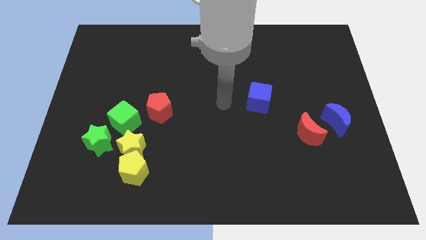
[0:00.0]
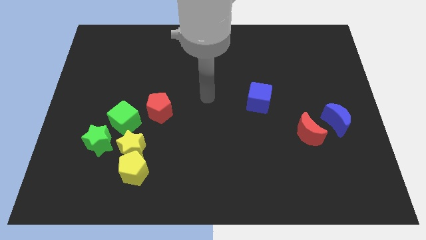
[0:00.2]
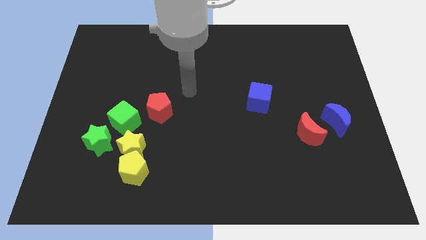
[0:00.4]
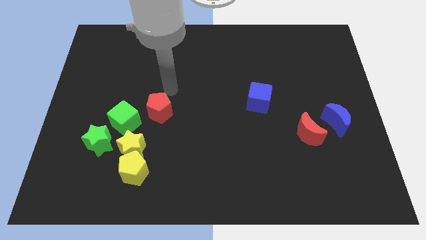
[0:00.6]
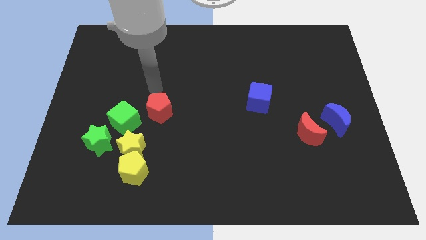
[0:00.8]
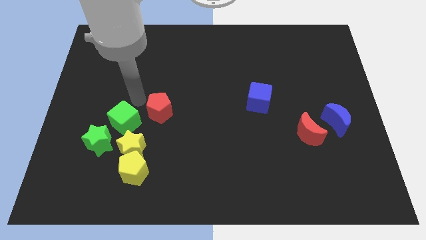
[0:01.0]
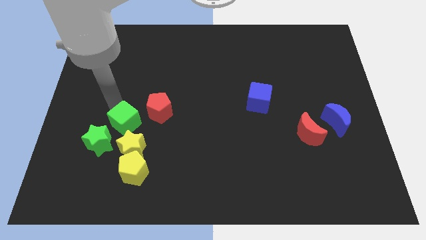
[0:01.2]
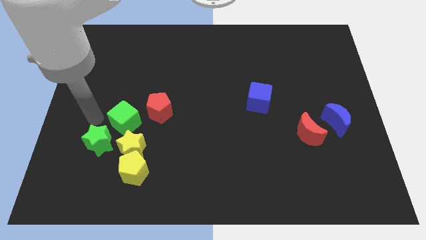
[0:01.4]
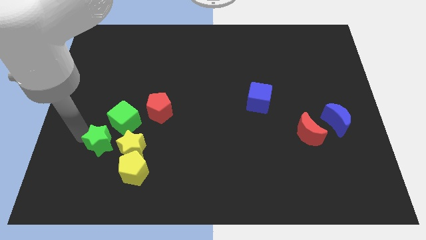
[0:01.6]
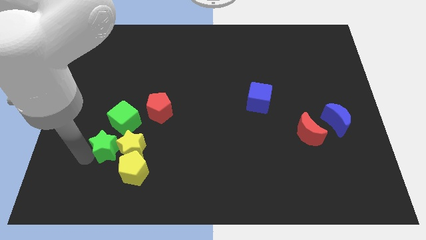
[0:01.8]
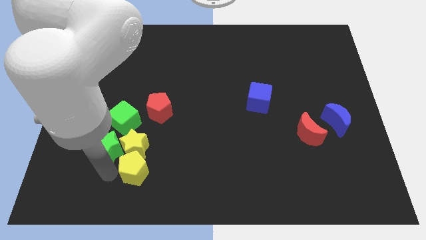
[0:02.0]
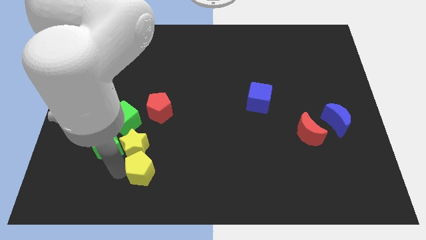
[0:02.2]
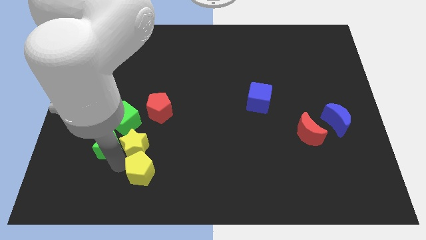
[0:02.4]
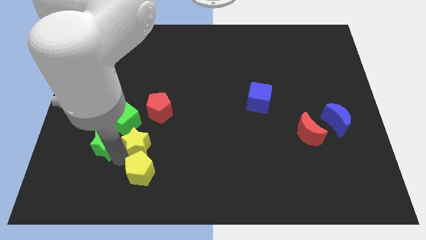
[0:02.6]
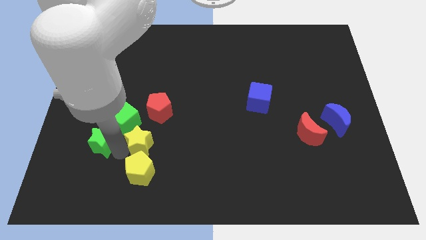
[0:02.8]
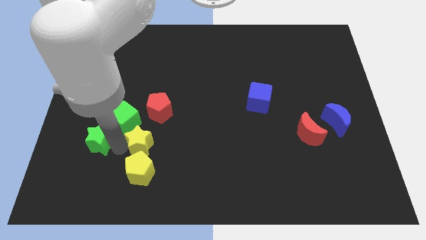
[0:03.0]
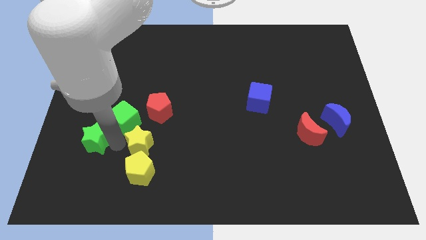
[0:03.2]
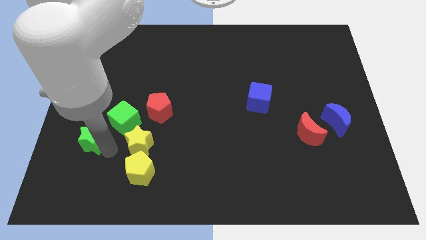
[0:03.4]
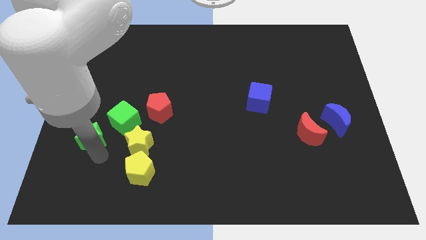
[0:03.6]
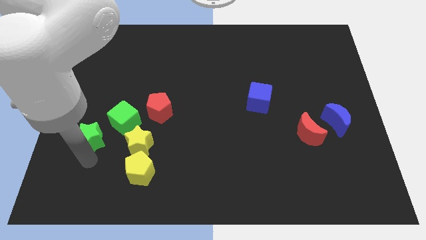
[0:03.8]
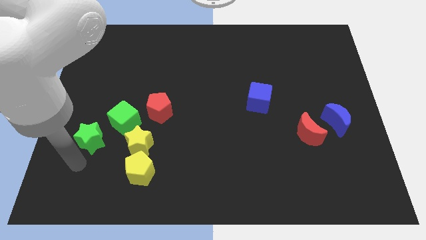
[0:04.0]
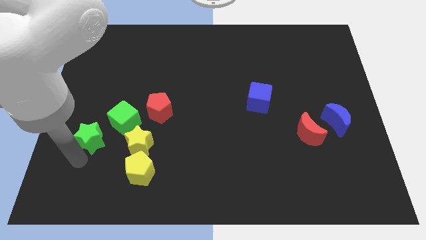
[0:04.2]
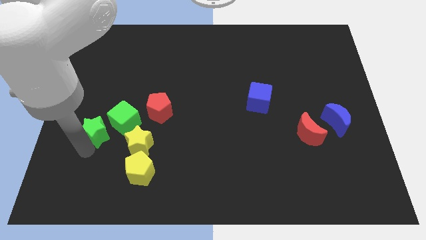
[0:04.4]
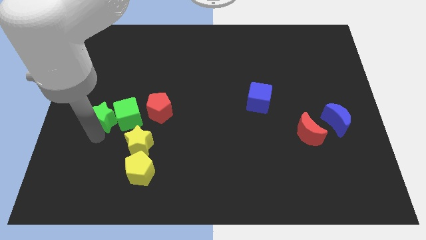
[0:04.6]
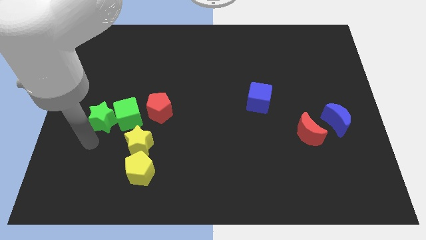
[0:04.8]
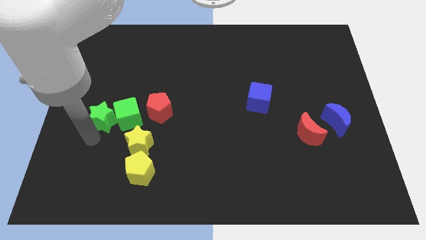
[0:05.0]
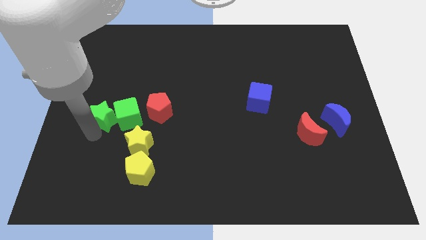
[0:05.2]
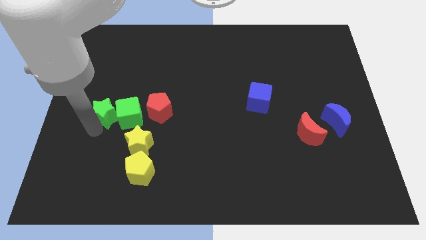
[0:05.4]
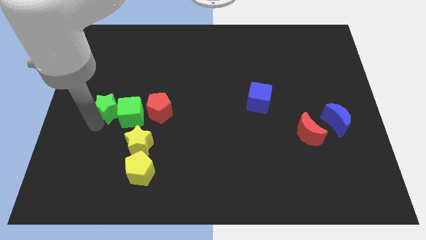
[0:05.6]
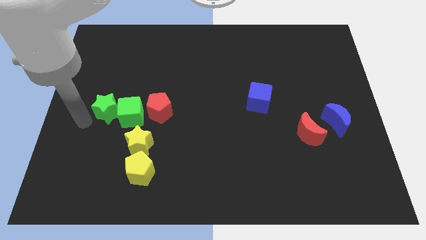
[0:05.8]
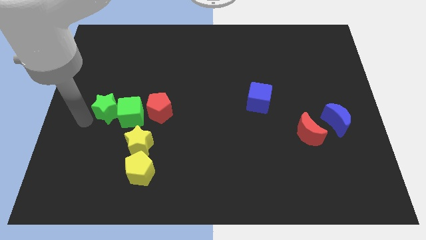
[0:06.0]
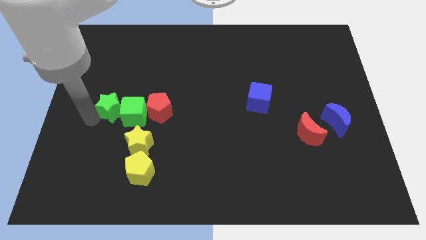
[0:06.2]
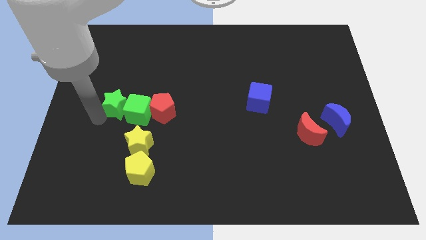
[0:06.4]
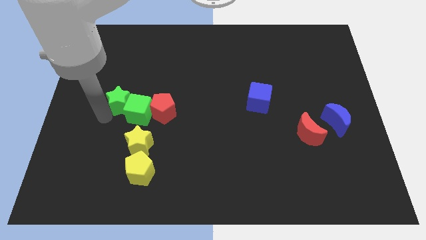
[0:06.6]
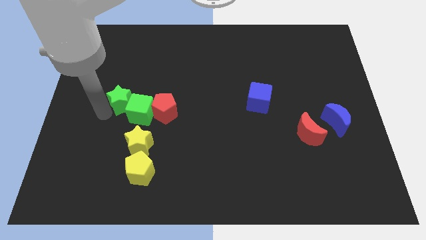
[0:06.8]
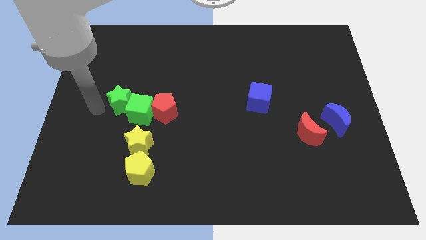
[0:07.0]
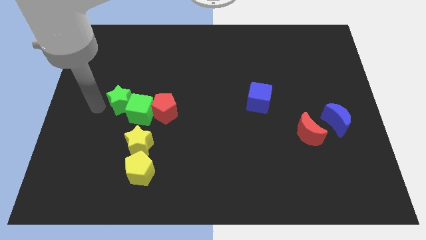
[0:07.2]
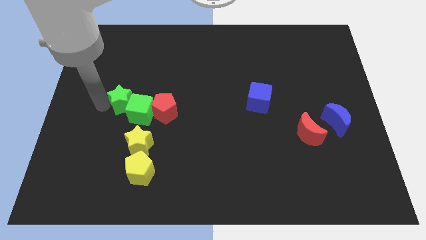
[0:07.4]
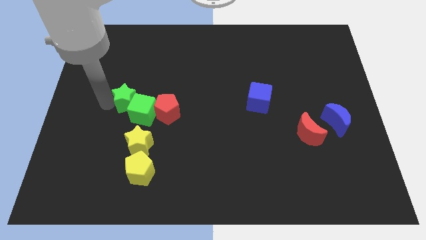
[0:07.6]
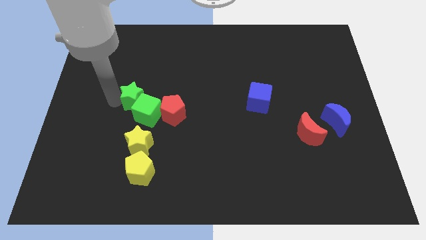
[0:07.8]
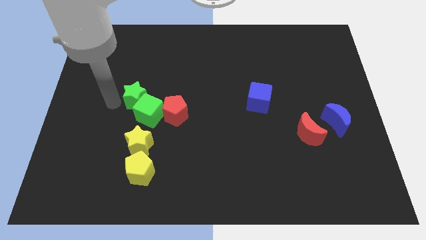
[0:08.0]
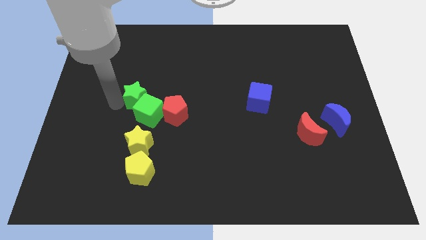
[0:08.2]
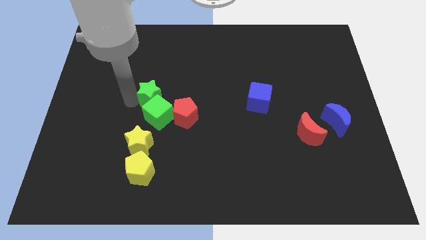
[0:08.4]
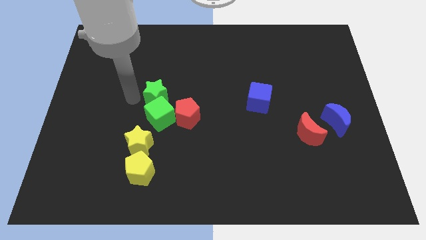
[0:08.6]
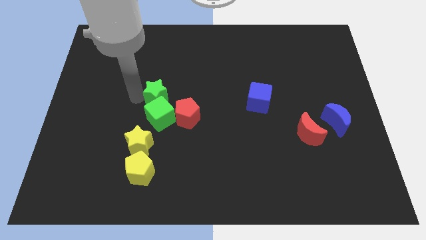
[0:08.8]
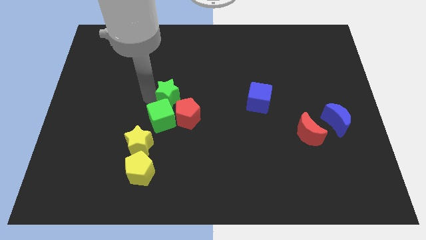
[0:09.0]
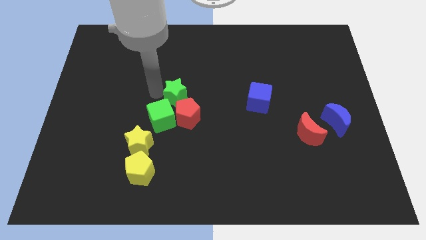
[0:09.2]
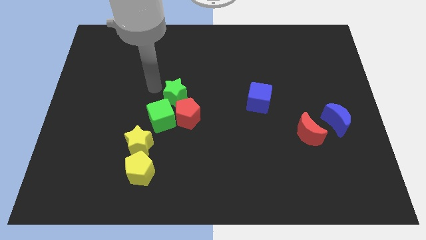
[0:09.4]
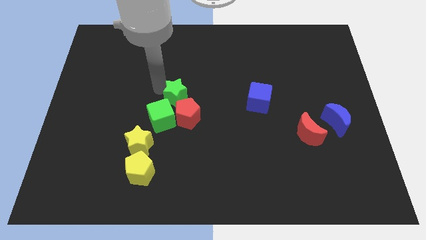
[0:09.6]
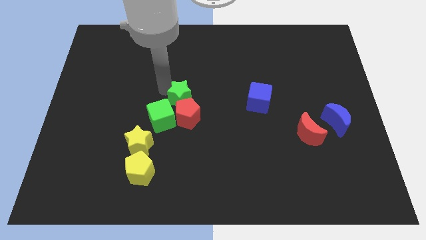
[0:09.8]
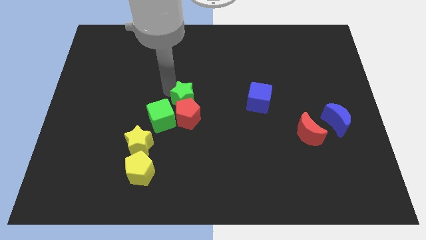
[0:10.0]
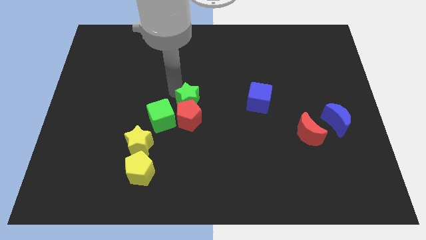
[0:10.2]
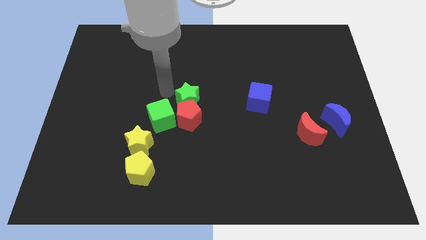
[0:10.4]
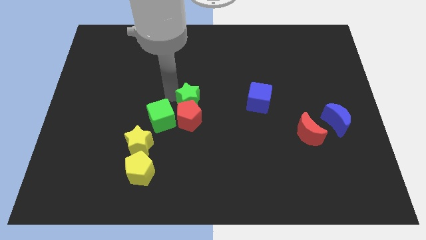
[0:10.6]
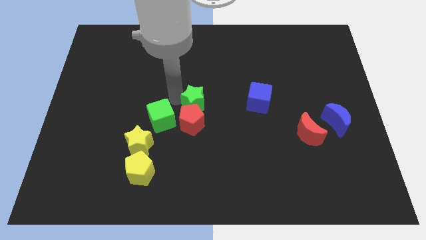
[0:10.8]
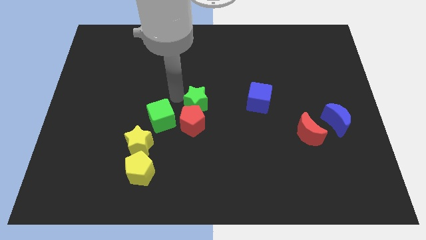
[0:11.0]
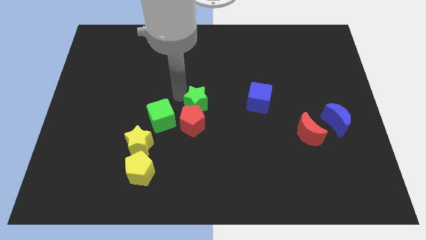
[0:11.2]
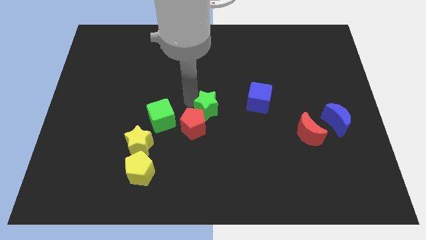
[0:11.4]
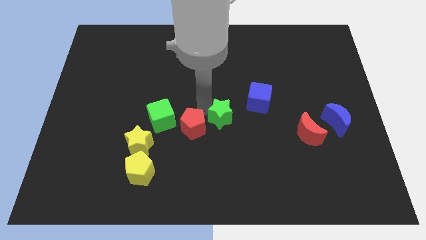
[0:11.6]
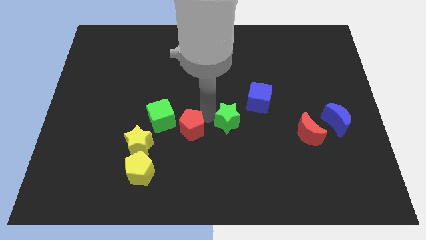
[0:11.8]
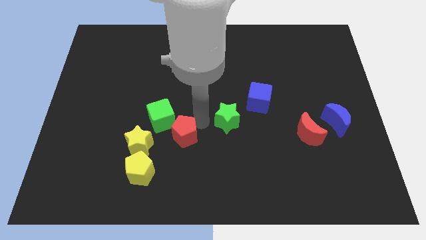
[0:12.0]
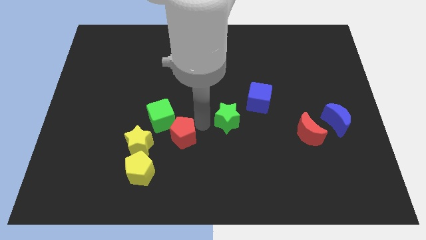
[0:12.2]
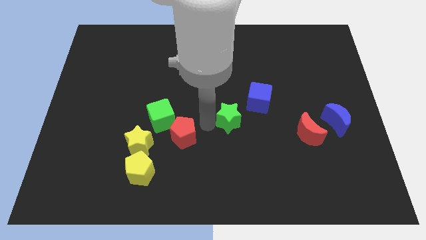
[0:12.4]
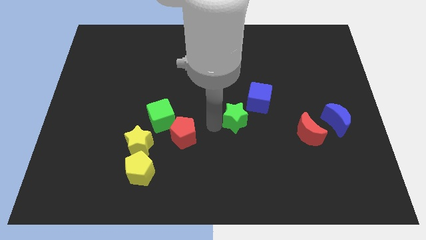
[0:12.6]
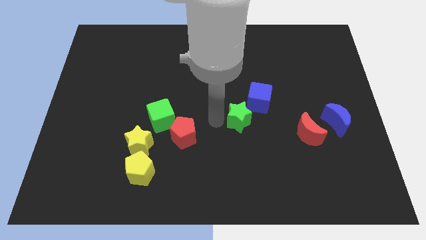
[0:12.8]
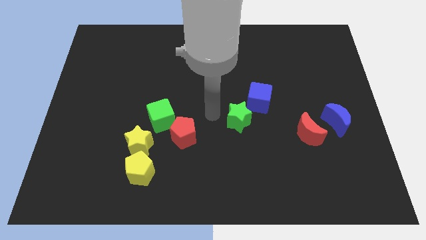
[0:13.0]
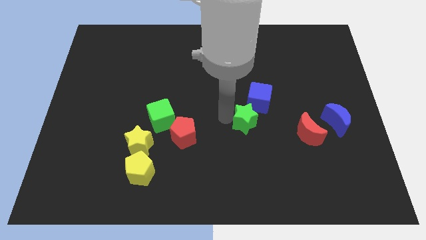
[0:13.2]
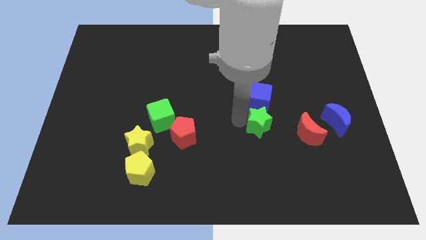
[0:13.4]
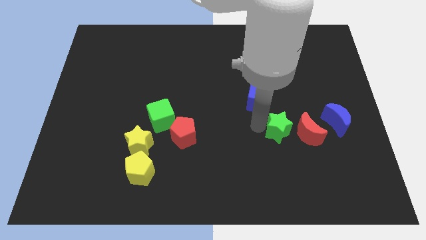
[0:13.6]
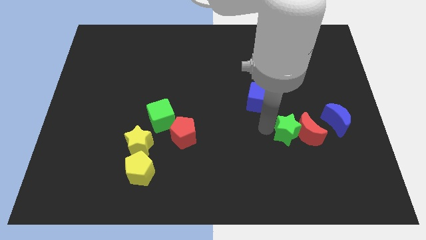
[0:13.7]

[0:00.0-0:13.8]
slide the green star towards the red moon

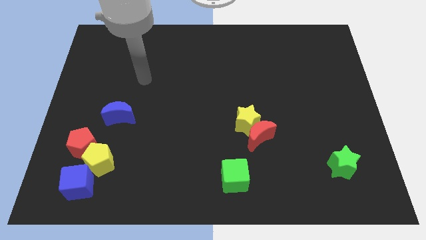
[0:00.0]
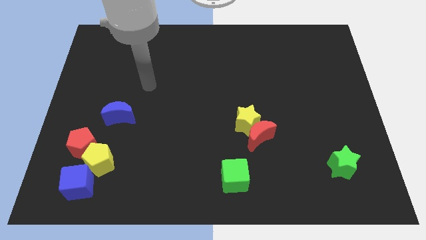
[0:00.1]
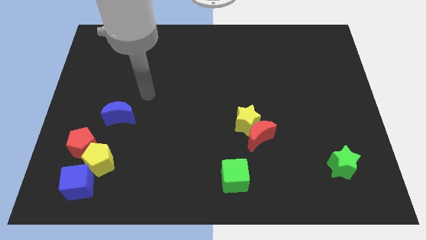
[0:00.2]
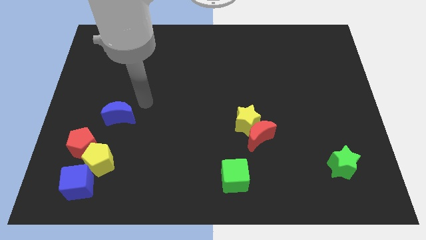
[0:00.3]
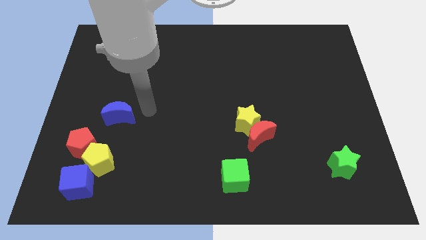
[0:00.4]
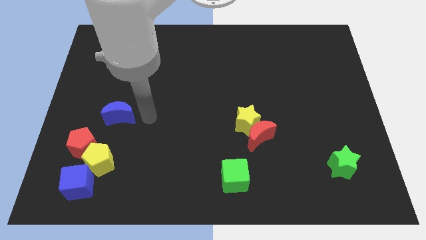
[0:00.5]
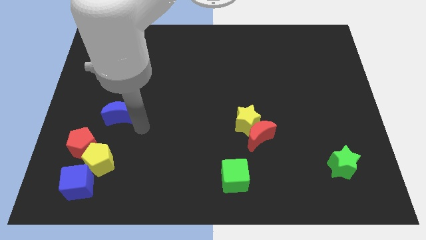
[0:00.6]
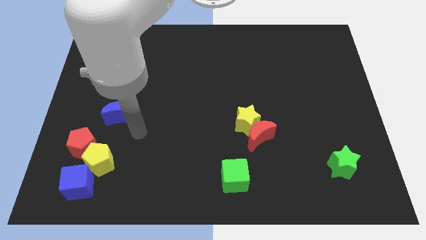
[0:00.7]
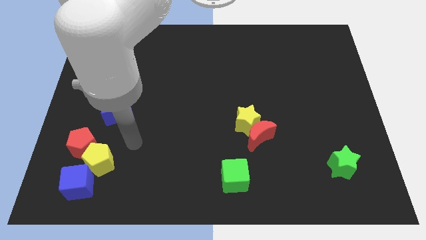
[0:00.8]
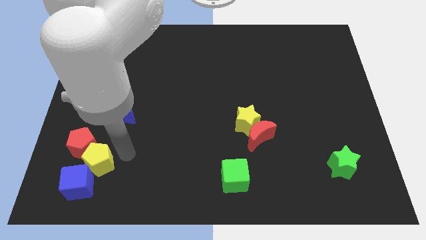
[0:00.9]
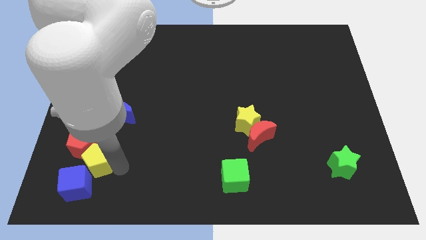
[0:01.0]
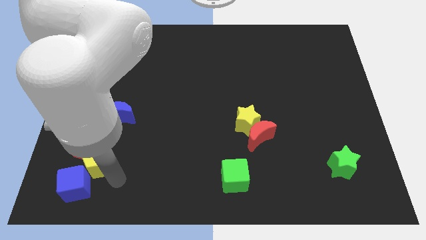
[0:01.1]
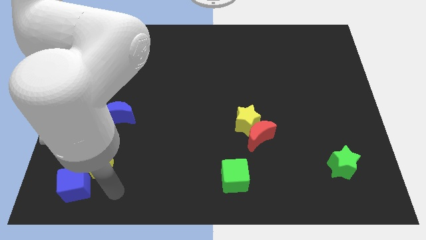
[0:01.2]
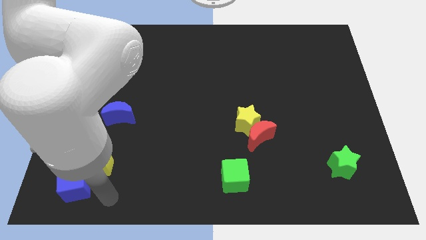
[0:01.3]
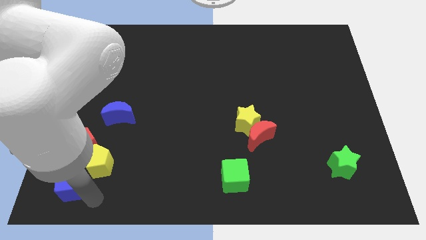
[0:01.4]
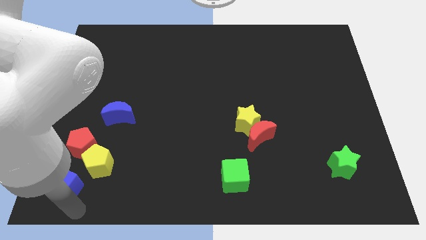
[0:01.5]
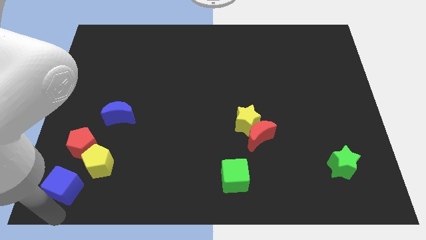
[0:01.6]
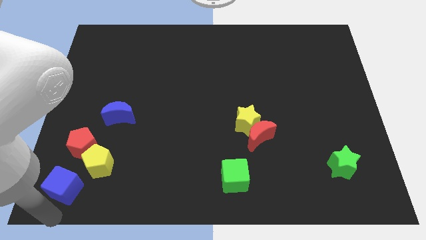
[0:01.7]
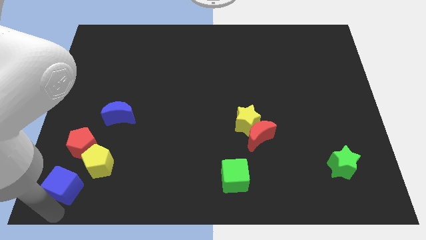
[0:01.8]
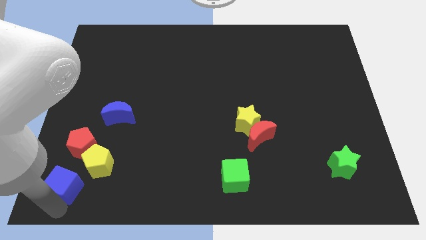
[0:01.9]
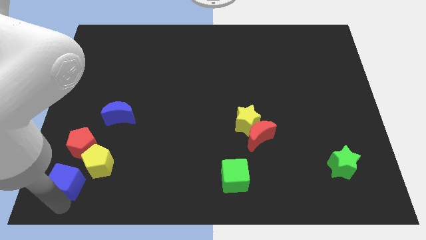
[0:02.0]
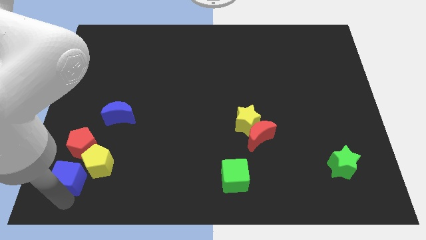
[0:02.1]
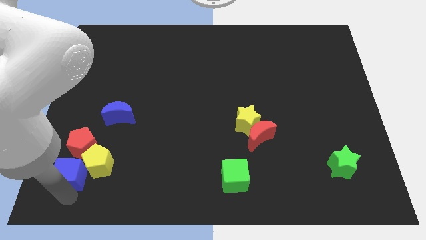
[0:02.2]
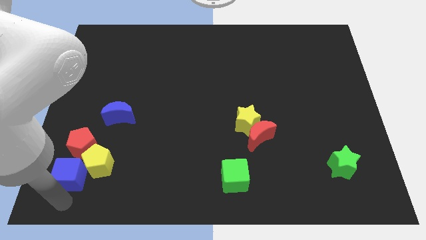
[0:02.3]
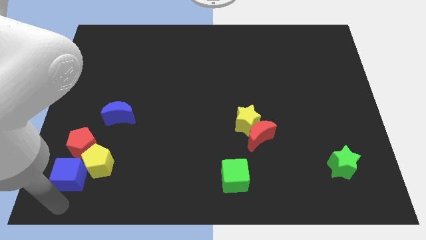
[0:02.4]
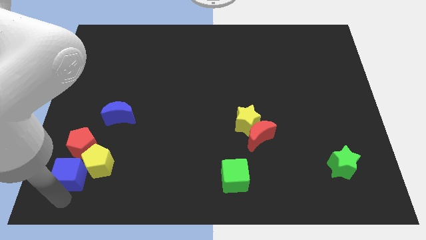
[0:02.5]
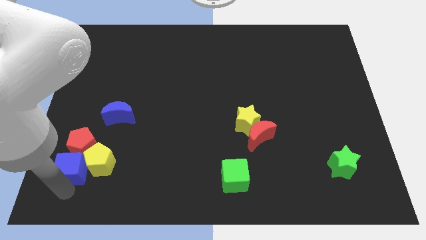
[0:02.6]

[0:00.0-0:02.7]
push the blue cube close to the red pentagon
